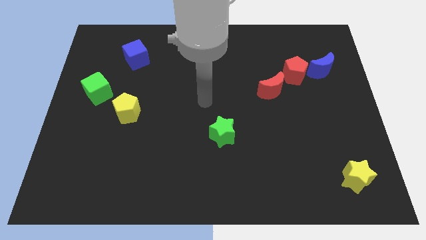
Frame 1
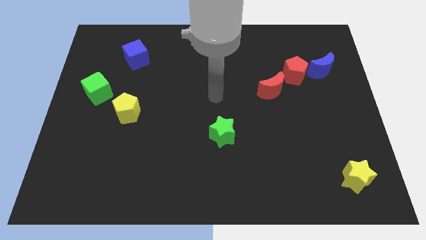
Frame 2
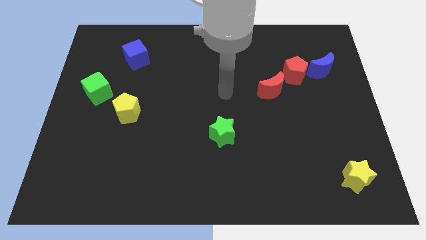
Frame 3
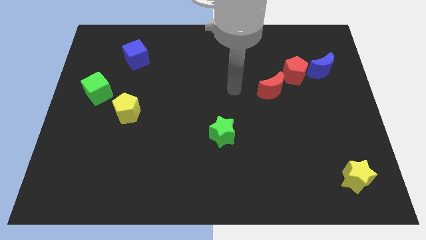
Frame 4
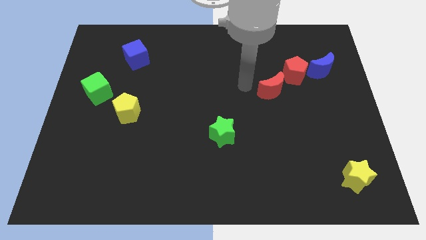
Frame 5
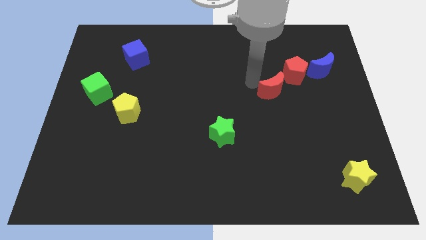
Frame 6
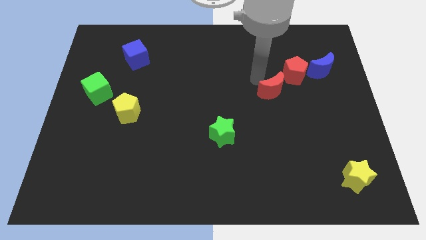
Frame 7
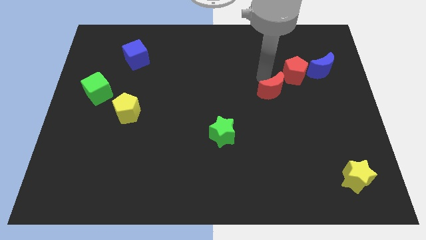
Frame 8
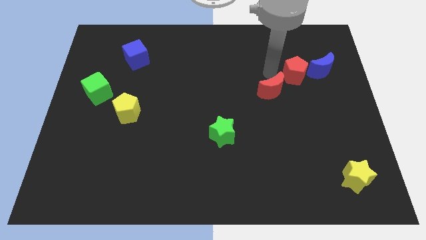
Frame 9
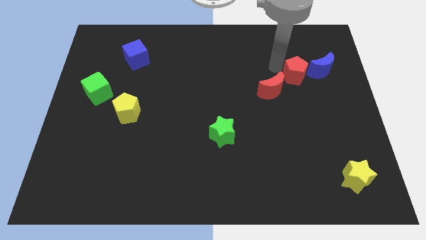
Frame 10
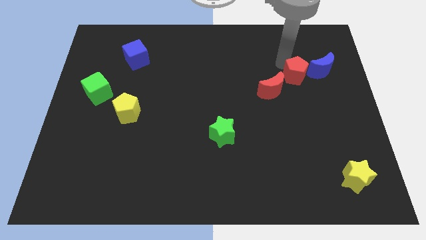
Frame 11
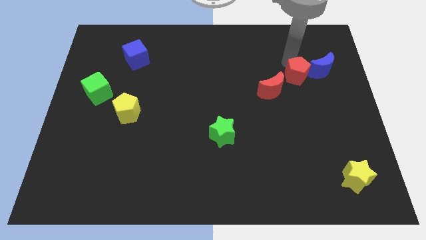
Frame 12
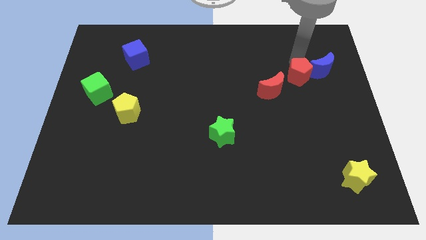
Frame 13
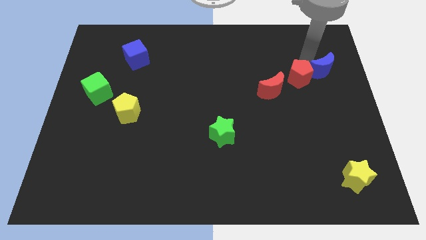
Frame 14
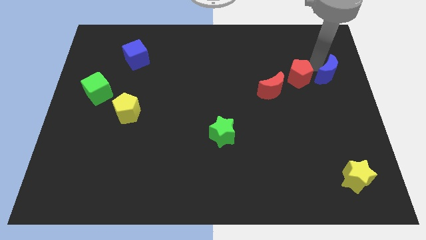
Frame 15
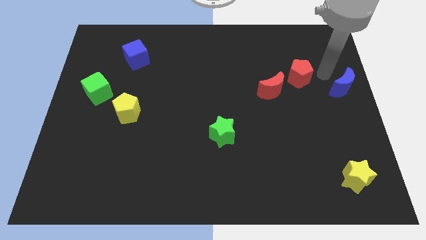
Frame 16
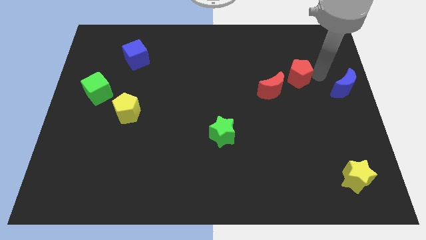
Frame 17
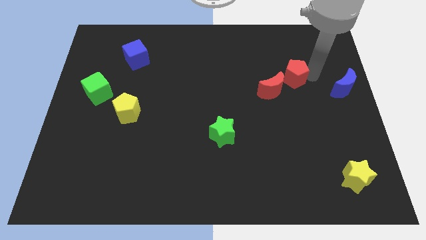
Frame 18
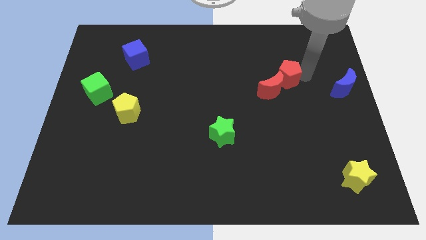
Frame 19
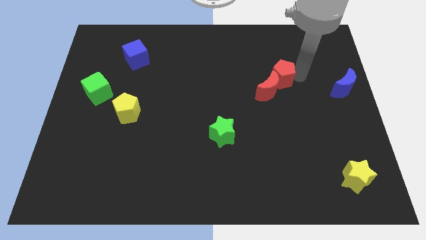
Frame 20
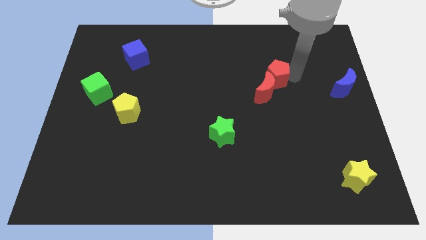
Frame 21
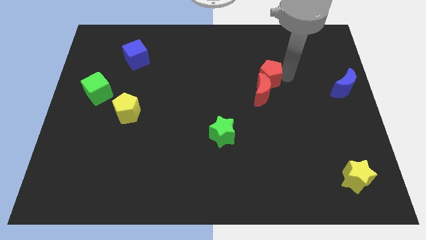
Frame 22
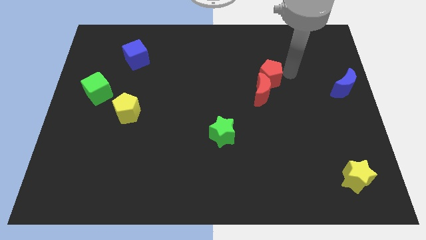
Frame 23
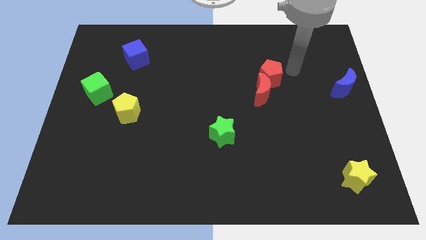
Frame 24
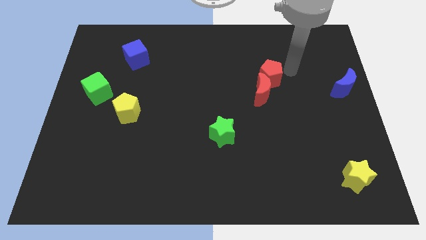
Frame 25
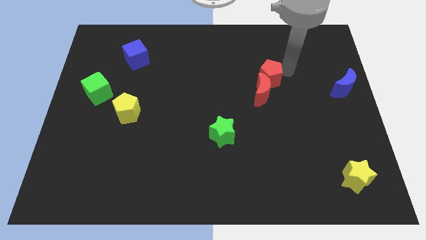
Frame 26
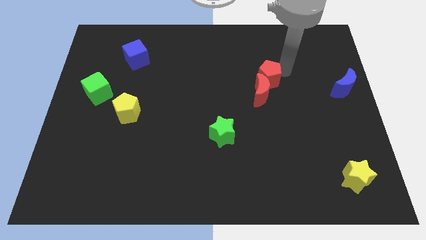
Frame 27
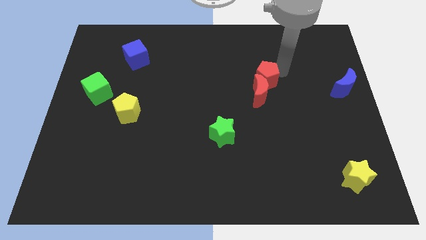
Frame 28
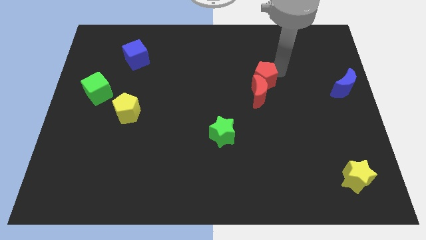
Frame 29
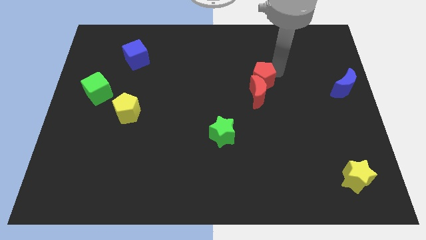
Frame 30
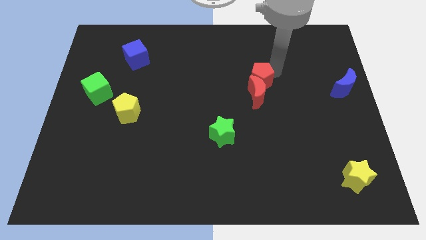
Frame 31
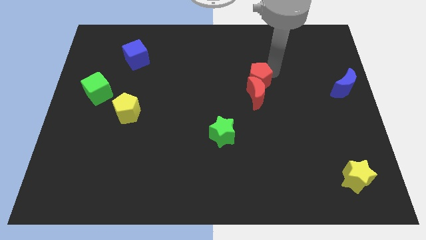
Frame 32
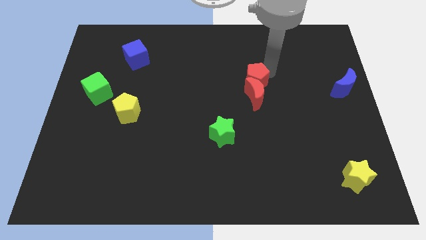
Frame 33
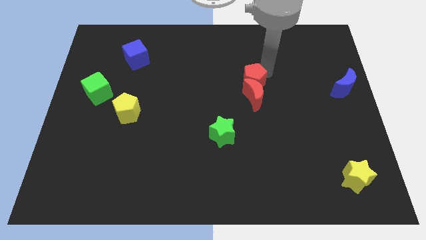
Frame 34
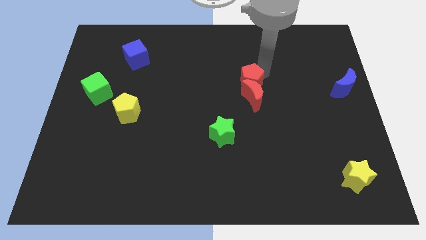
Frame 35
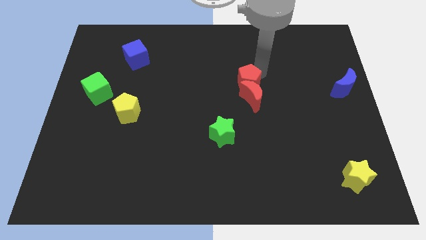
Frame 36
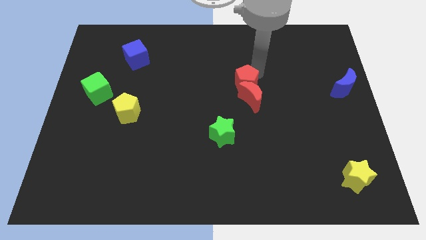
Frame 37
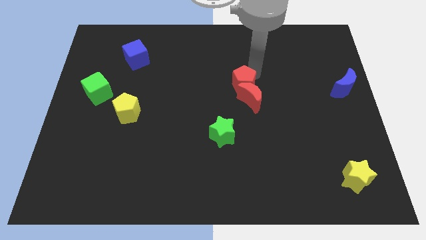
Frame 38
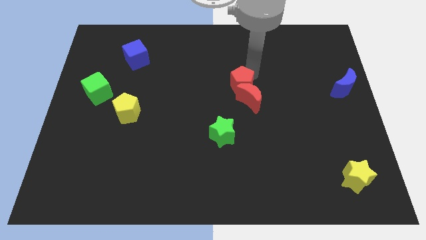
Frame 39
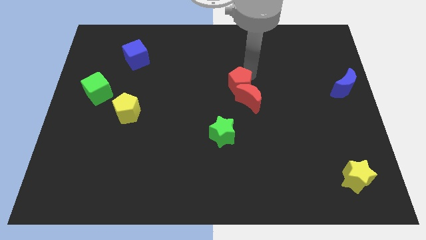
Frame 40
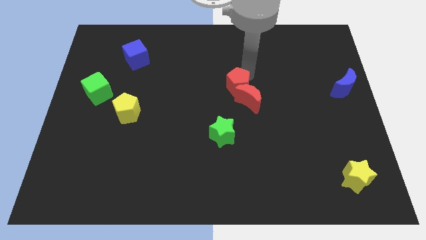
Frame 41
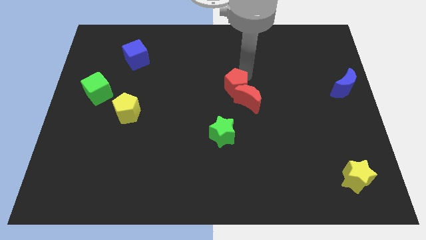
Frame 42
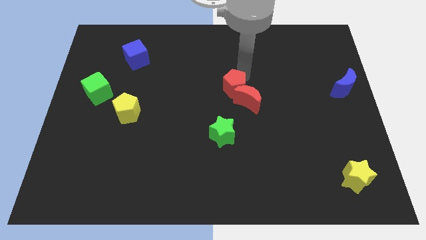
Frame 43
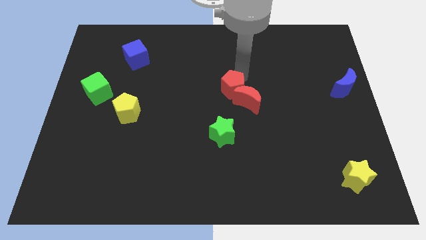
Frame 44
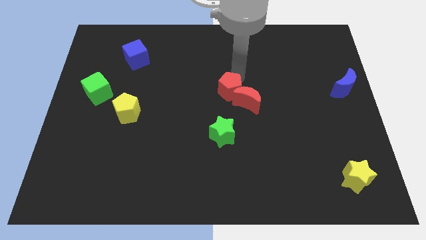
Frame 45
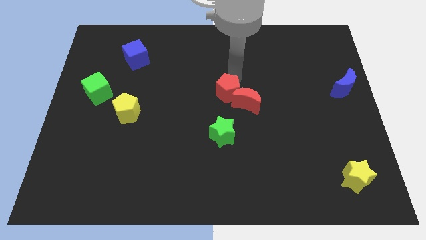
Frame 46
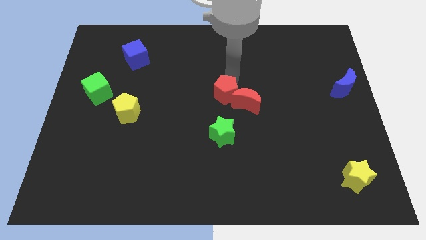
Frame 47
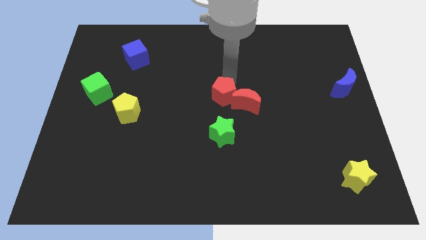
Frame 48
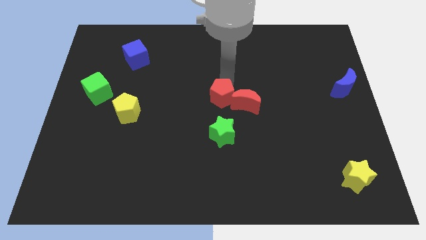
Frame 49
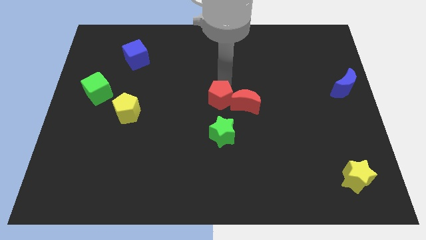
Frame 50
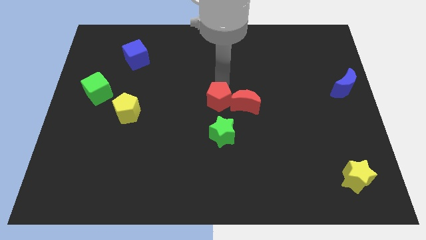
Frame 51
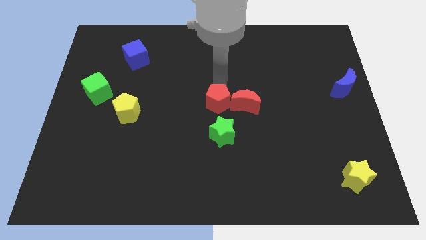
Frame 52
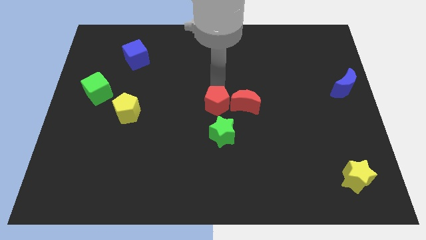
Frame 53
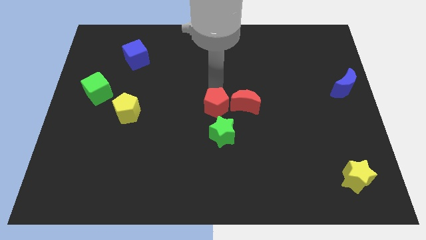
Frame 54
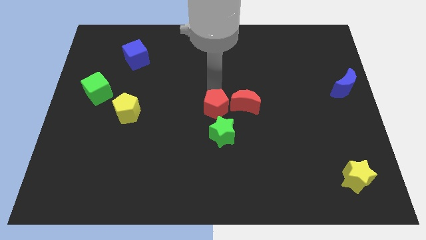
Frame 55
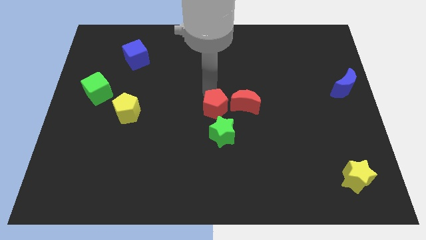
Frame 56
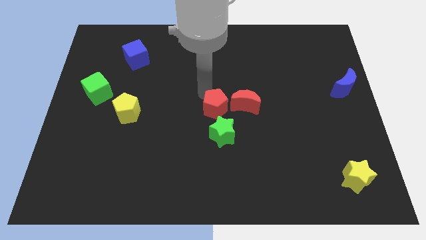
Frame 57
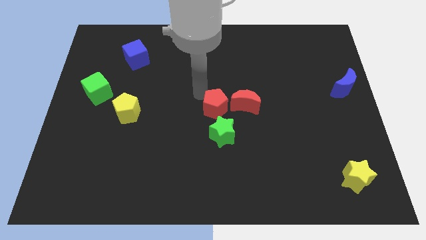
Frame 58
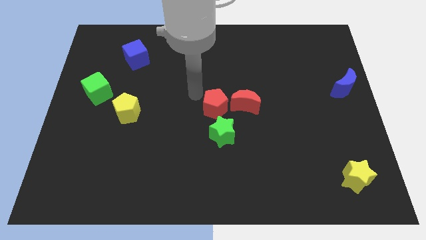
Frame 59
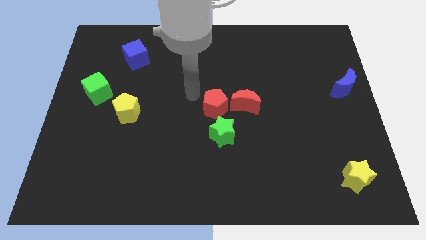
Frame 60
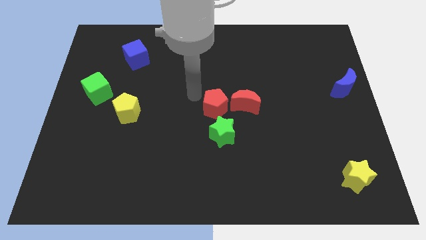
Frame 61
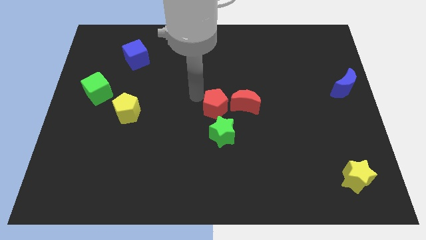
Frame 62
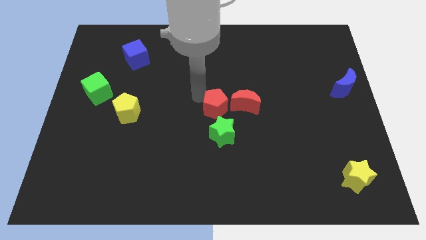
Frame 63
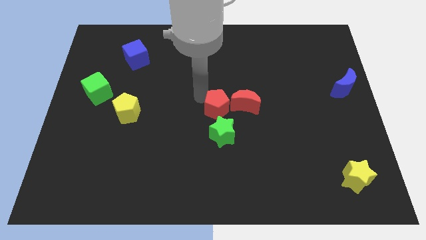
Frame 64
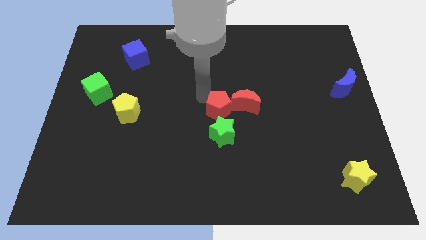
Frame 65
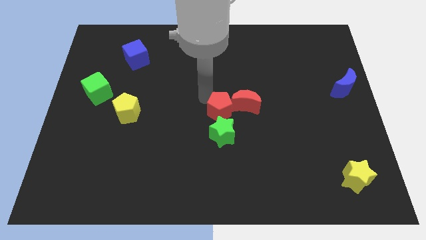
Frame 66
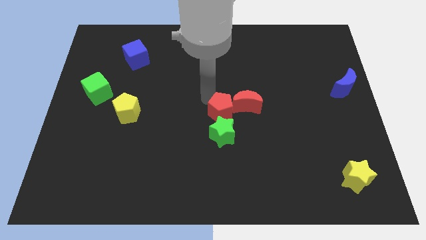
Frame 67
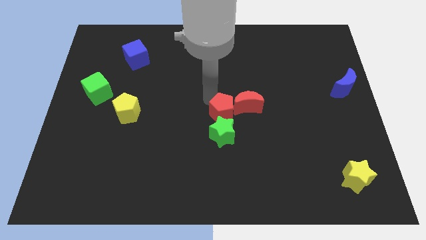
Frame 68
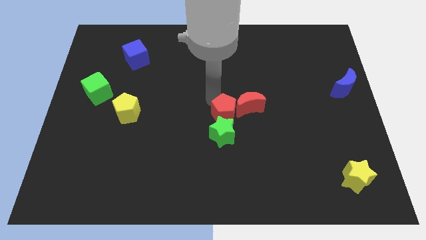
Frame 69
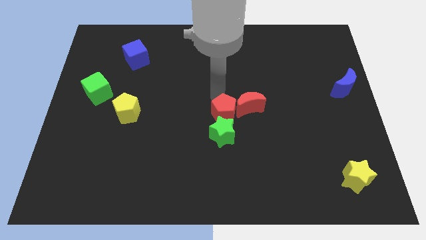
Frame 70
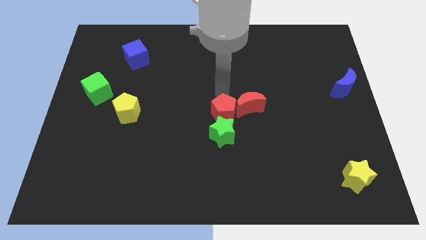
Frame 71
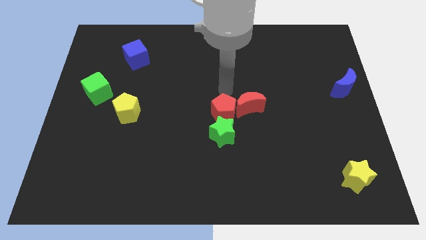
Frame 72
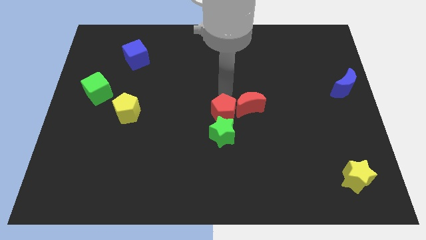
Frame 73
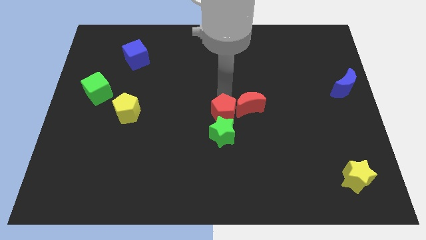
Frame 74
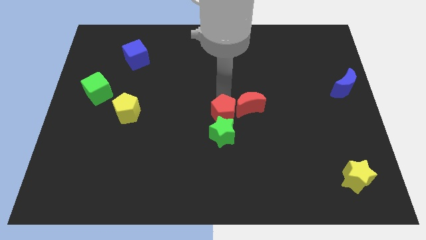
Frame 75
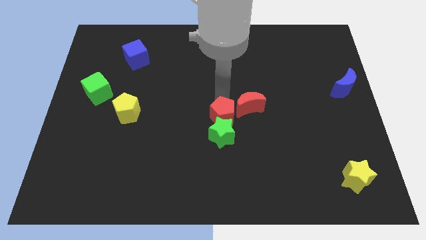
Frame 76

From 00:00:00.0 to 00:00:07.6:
slide the red pentagon towards the green star
